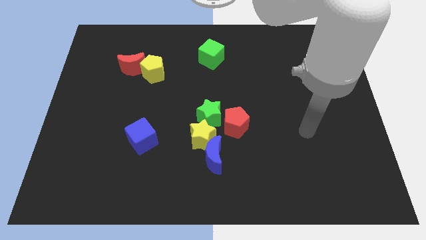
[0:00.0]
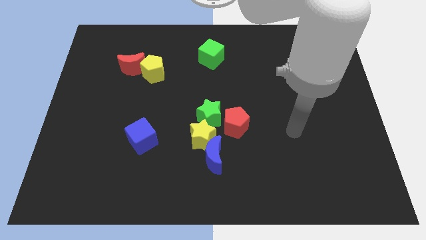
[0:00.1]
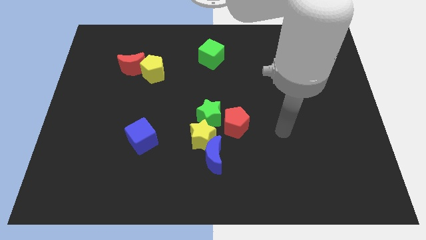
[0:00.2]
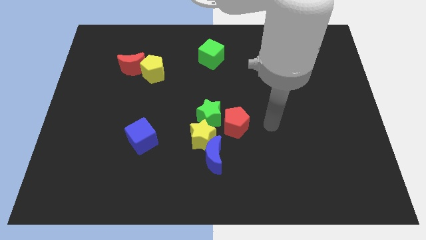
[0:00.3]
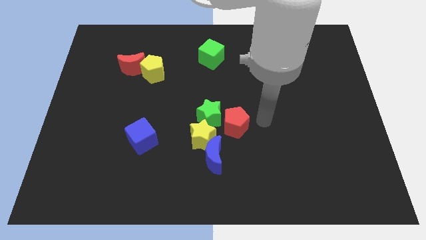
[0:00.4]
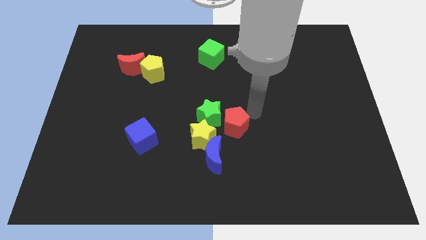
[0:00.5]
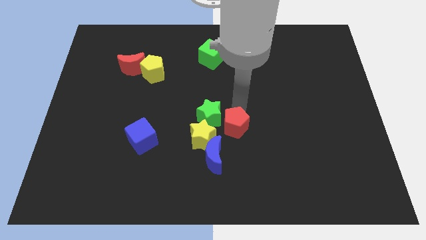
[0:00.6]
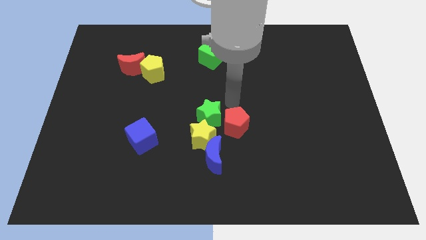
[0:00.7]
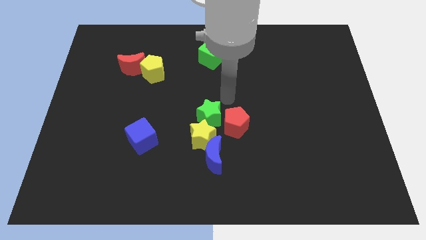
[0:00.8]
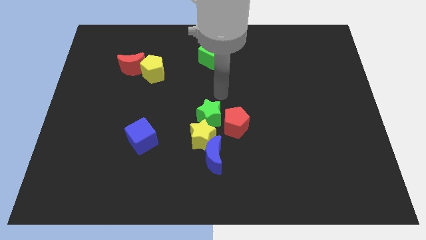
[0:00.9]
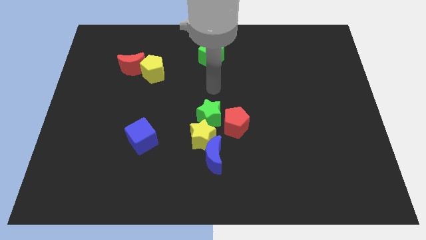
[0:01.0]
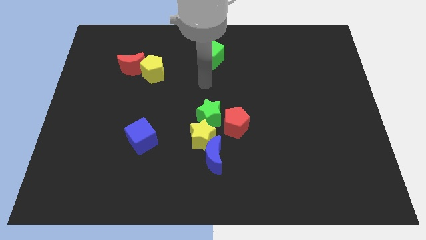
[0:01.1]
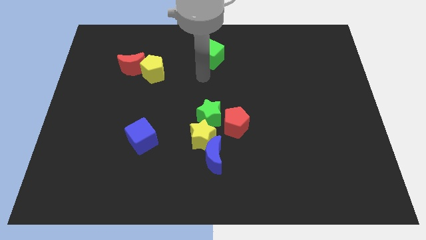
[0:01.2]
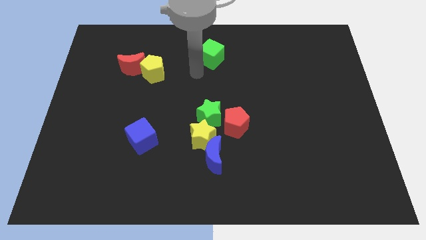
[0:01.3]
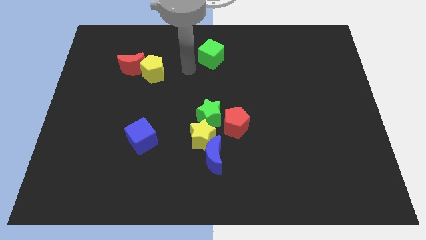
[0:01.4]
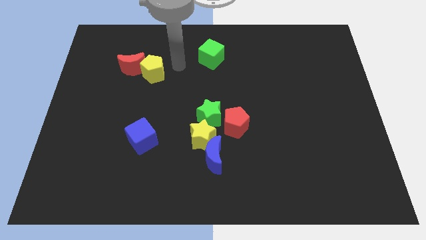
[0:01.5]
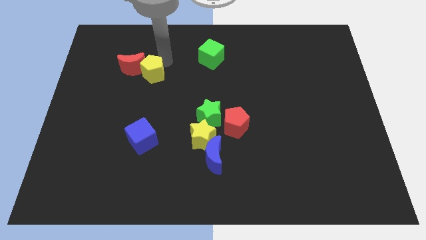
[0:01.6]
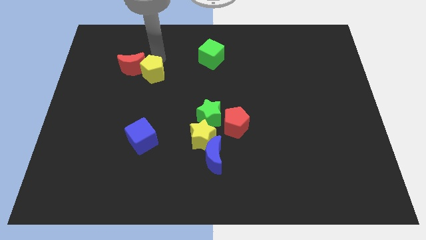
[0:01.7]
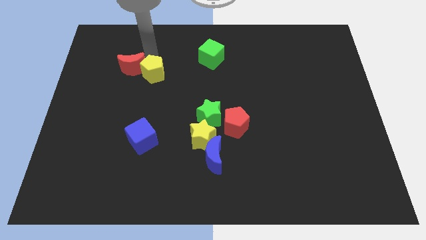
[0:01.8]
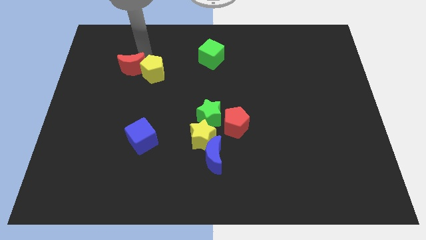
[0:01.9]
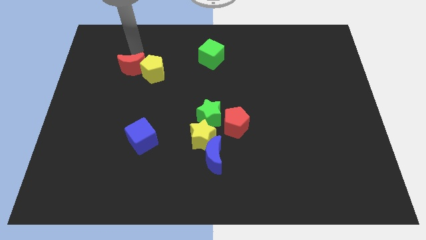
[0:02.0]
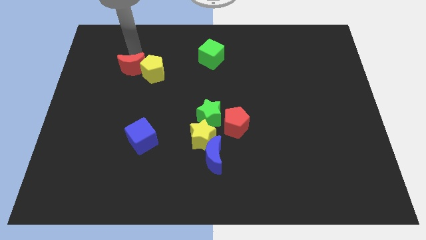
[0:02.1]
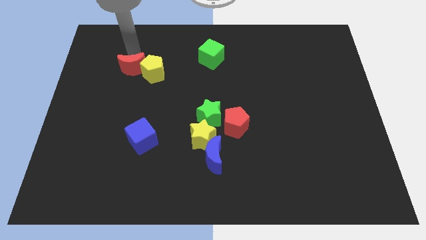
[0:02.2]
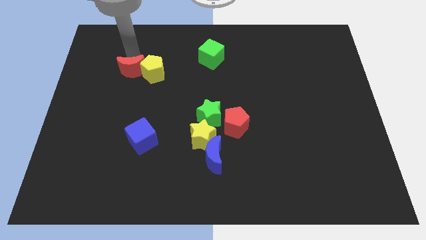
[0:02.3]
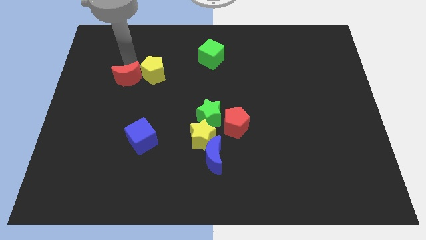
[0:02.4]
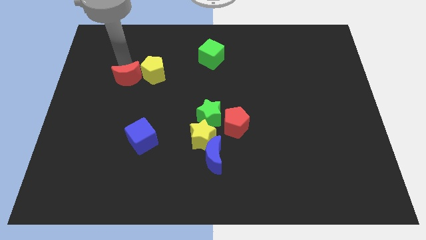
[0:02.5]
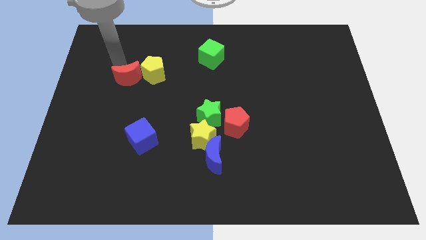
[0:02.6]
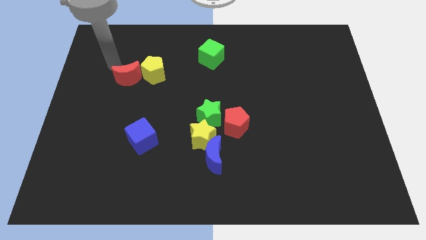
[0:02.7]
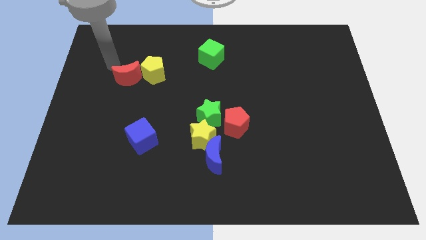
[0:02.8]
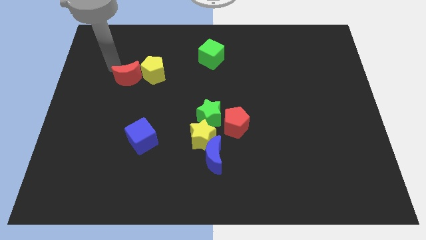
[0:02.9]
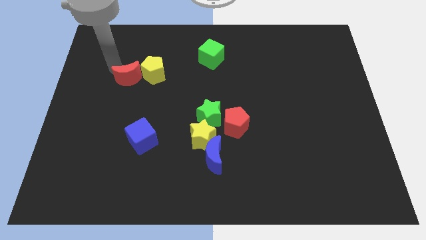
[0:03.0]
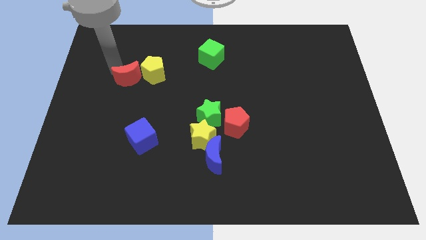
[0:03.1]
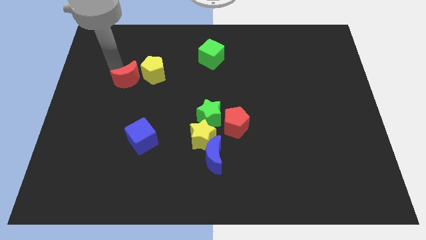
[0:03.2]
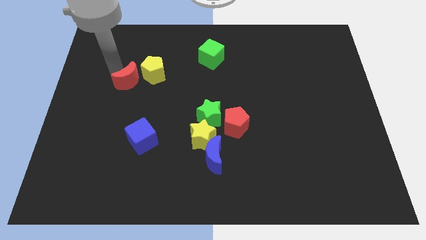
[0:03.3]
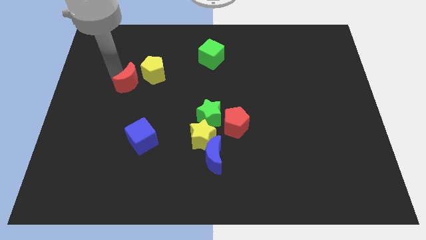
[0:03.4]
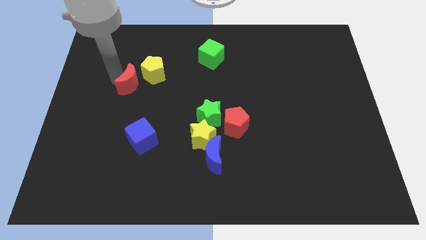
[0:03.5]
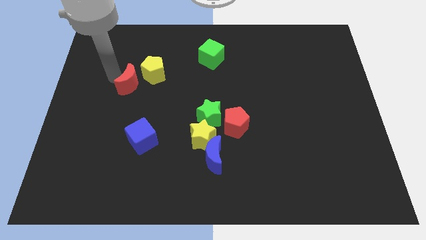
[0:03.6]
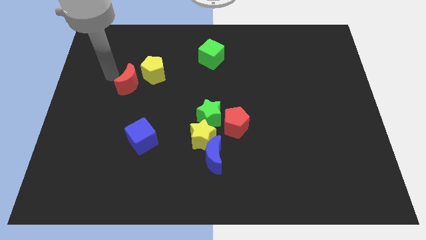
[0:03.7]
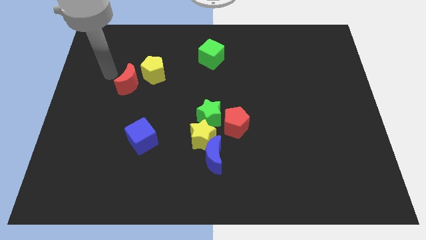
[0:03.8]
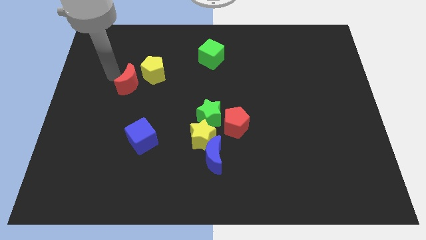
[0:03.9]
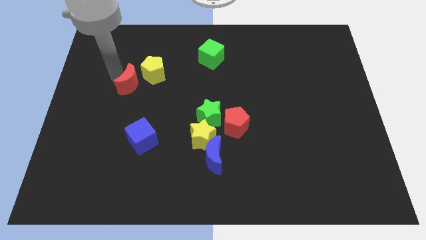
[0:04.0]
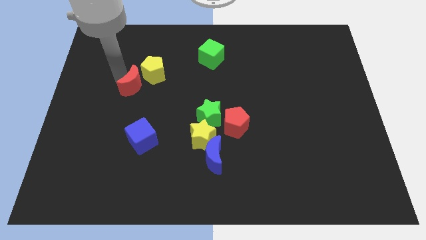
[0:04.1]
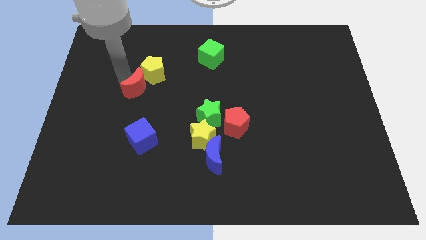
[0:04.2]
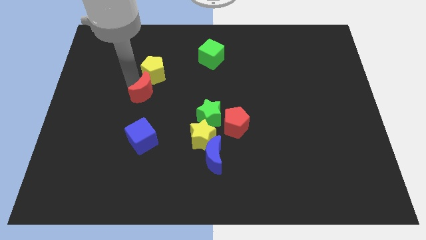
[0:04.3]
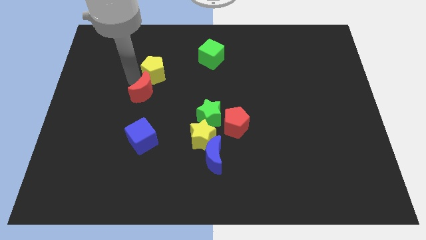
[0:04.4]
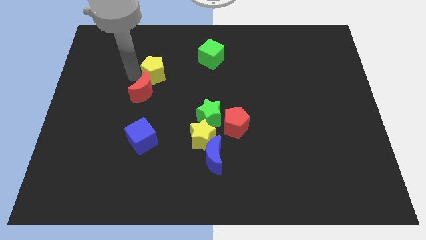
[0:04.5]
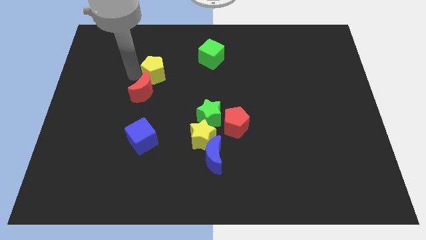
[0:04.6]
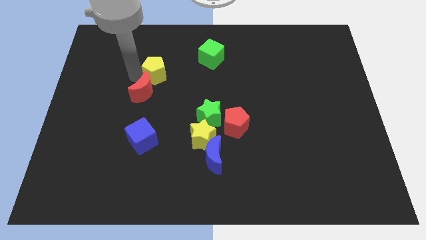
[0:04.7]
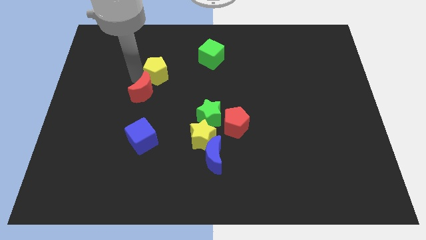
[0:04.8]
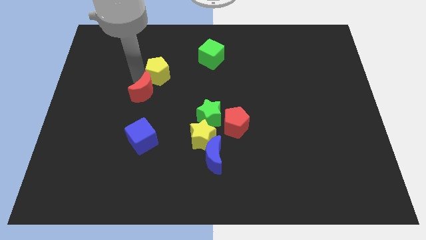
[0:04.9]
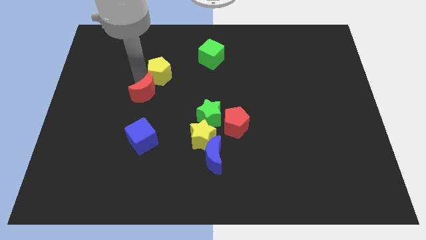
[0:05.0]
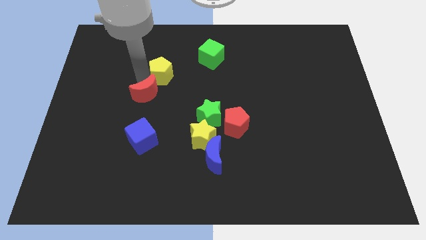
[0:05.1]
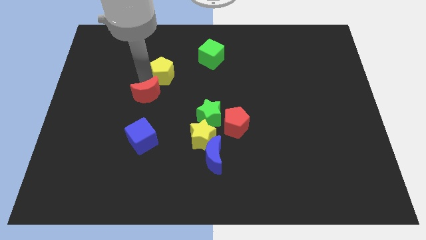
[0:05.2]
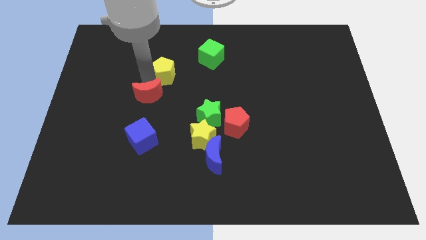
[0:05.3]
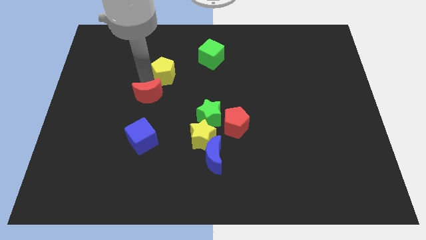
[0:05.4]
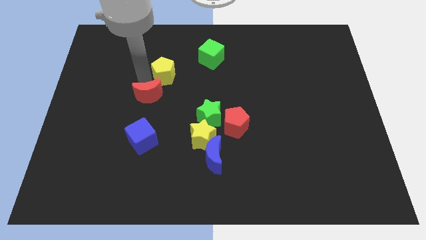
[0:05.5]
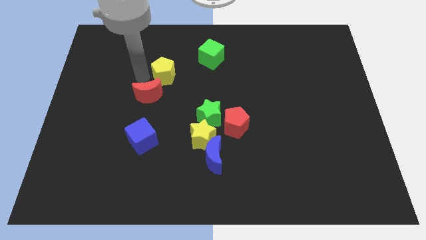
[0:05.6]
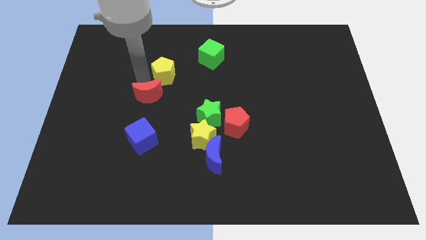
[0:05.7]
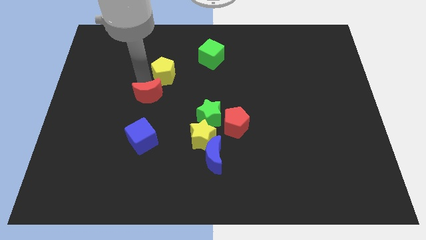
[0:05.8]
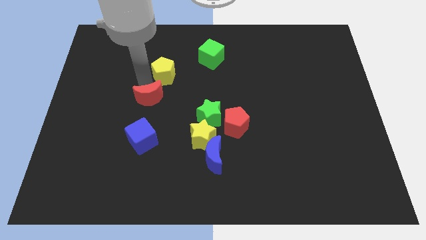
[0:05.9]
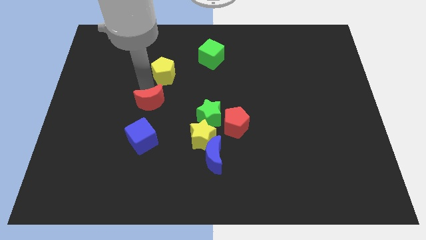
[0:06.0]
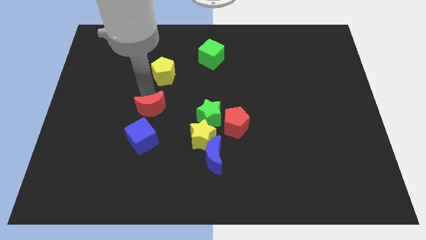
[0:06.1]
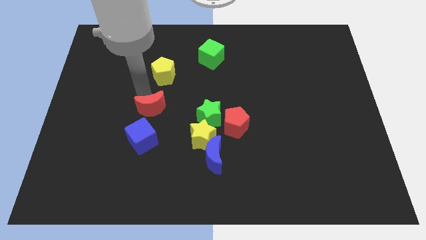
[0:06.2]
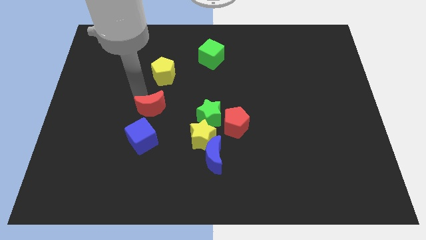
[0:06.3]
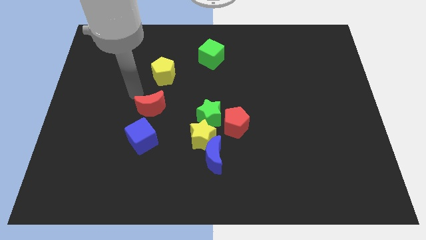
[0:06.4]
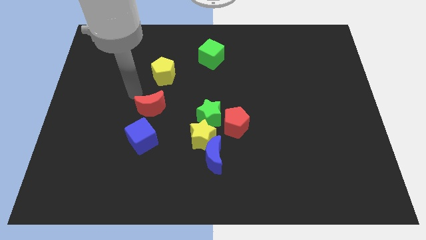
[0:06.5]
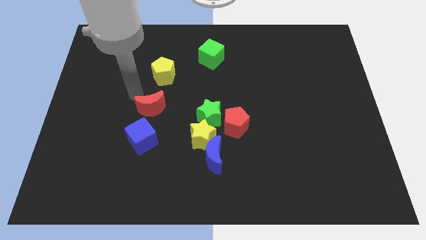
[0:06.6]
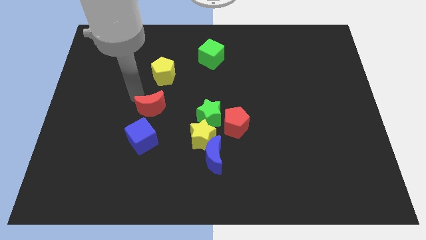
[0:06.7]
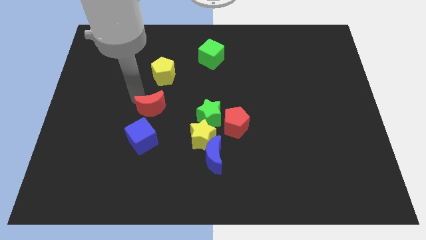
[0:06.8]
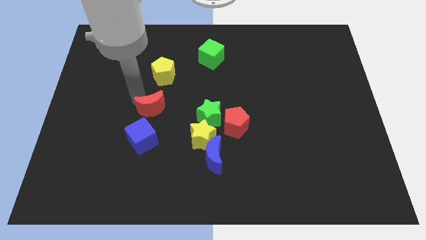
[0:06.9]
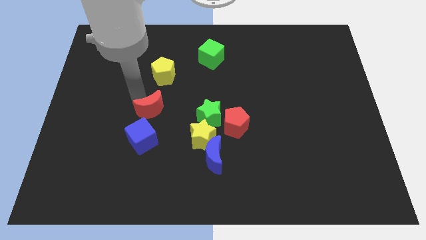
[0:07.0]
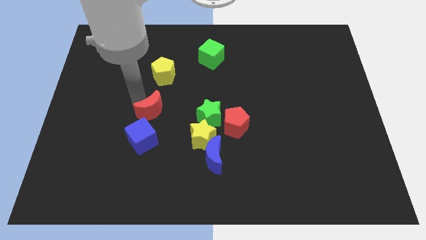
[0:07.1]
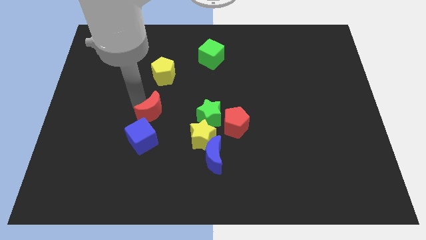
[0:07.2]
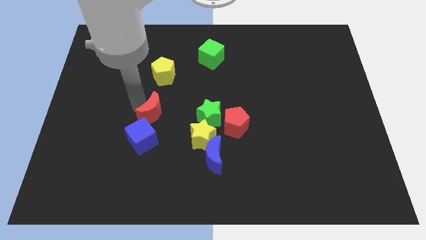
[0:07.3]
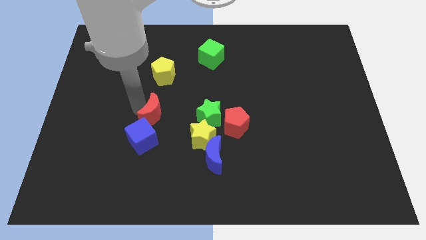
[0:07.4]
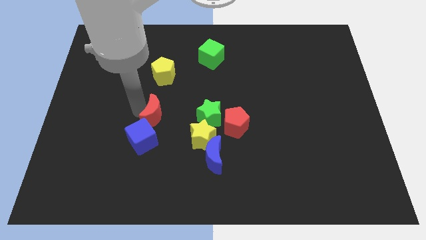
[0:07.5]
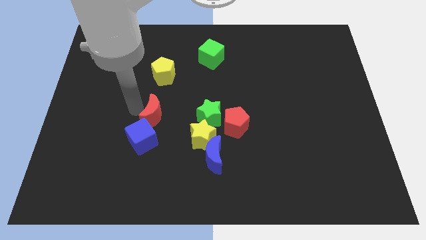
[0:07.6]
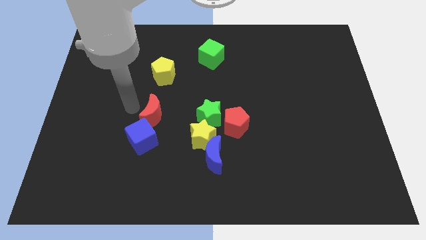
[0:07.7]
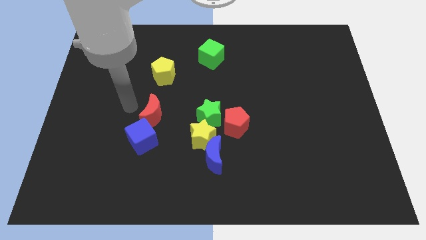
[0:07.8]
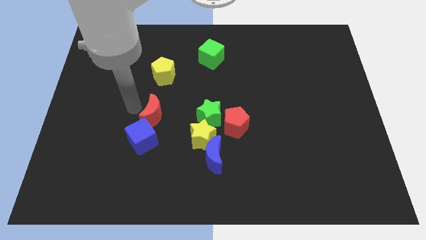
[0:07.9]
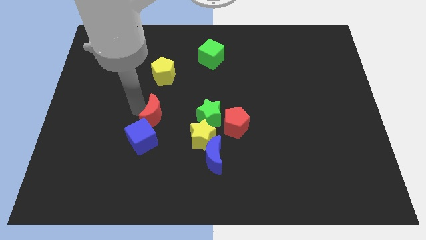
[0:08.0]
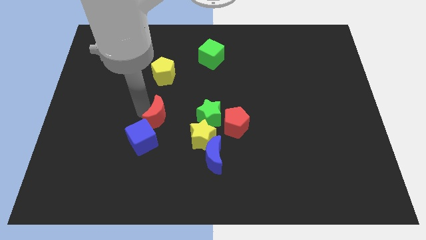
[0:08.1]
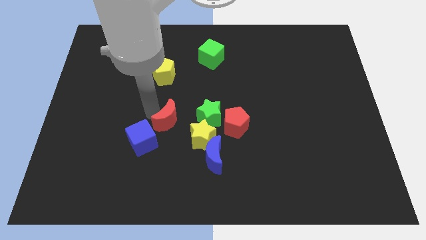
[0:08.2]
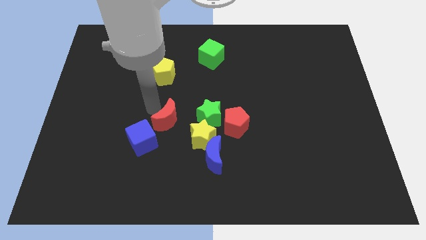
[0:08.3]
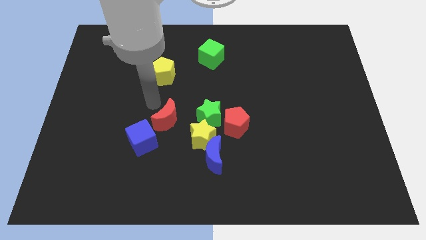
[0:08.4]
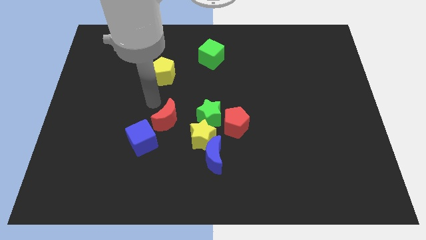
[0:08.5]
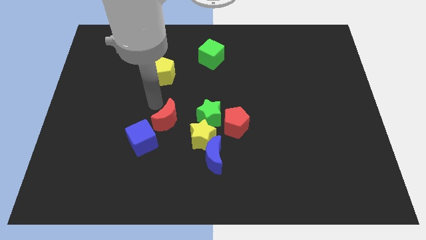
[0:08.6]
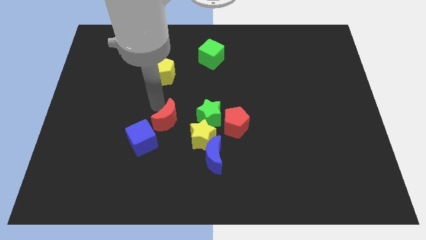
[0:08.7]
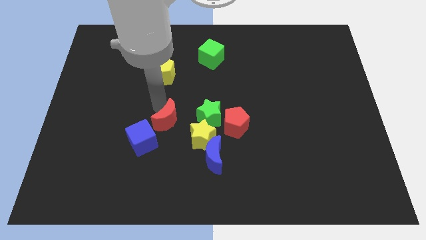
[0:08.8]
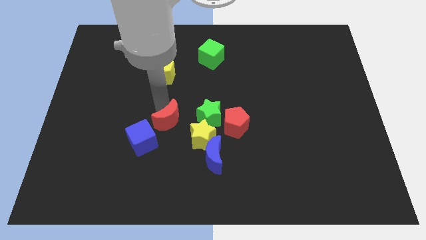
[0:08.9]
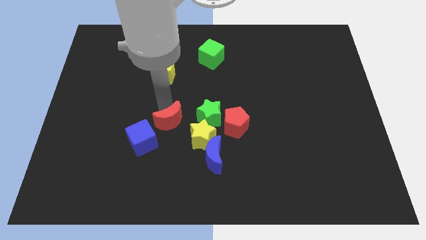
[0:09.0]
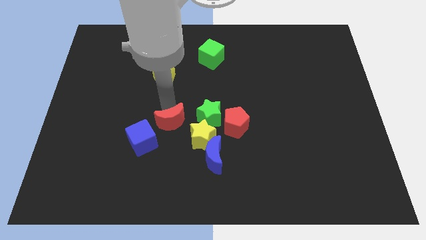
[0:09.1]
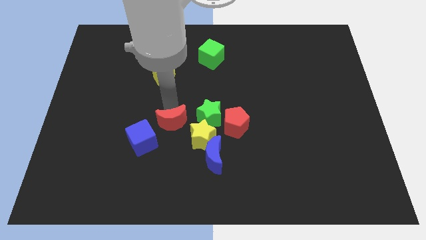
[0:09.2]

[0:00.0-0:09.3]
move the red moon down and then to the right
